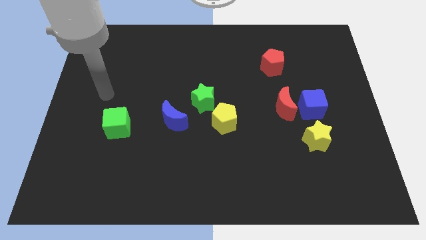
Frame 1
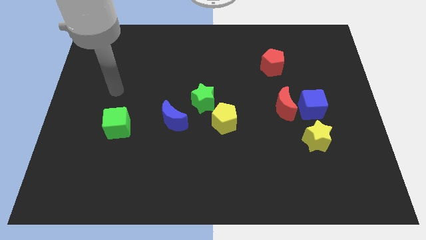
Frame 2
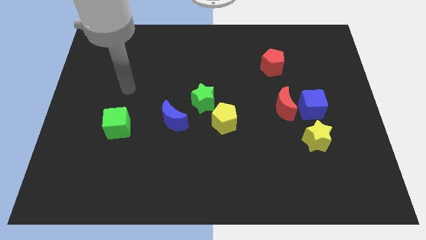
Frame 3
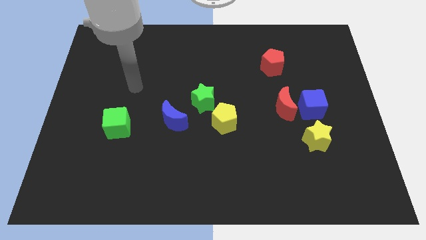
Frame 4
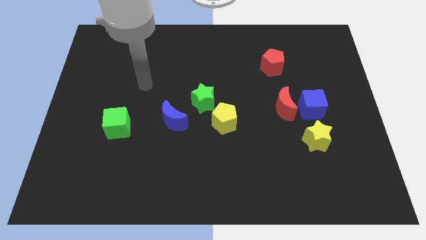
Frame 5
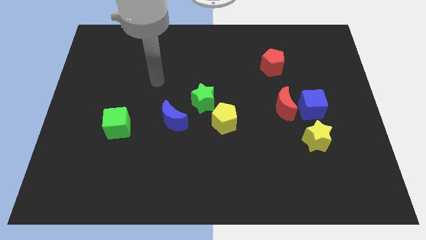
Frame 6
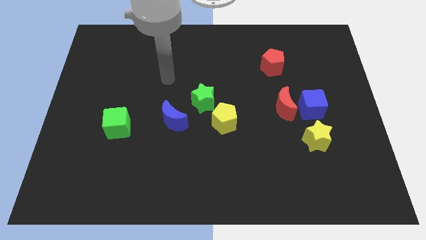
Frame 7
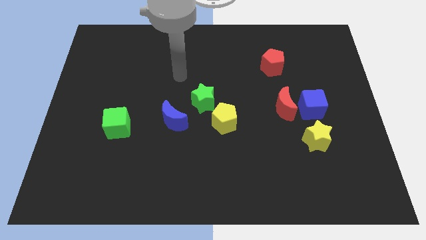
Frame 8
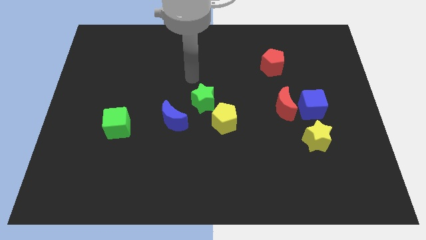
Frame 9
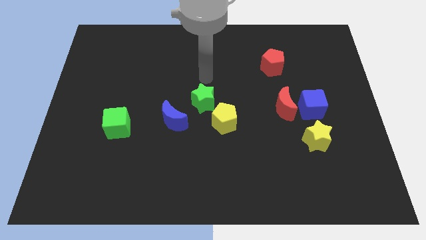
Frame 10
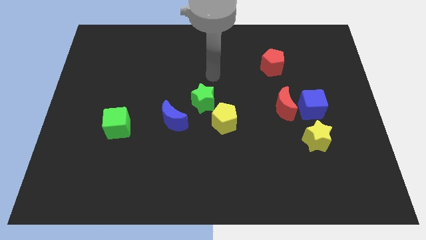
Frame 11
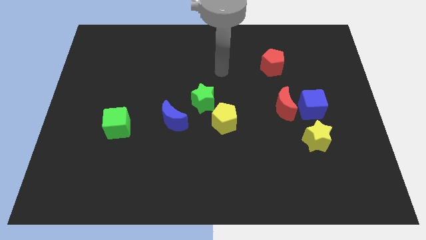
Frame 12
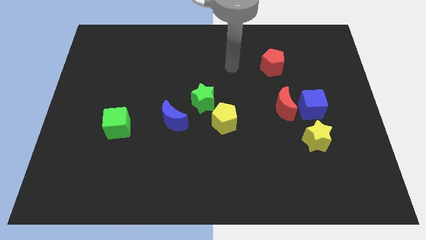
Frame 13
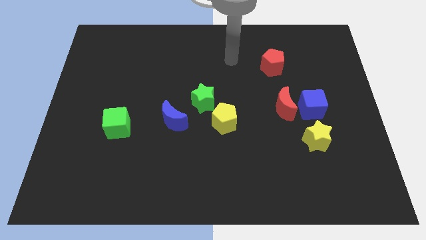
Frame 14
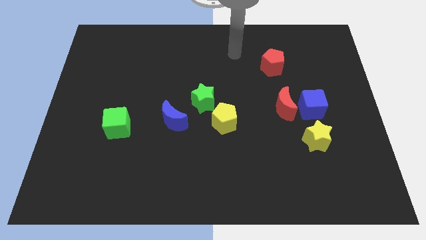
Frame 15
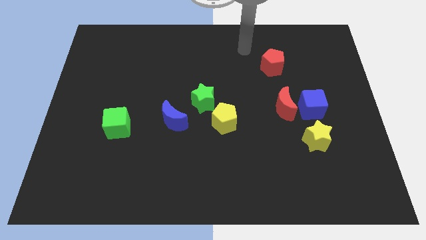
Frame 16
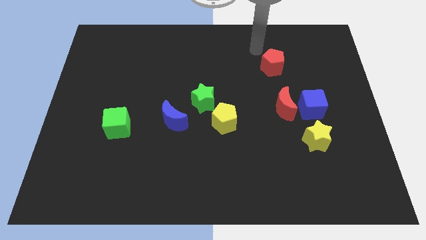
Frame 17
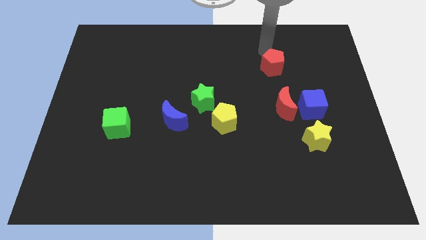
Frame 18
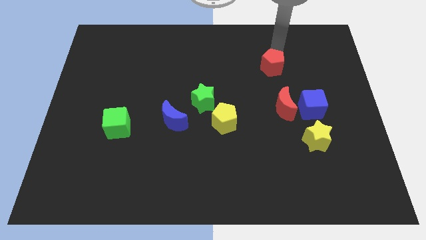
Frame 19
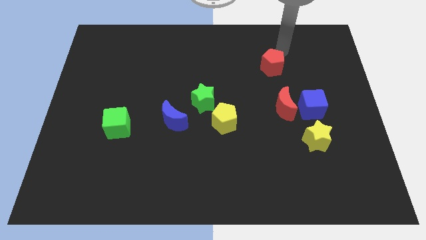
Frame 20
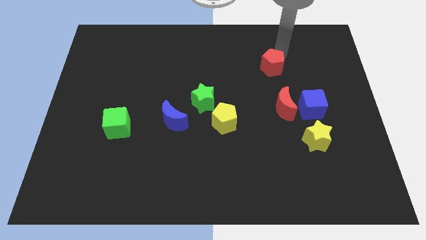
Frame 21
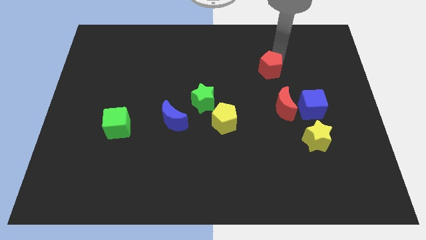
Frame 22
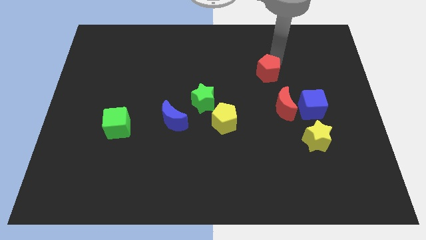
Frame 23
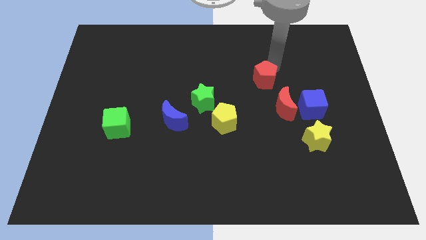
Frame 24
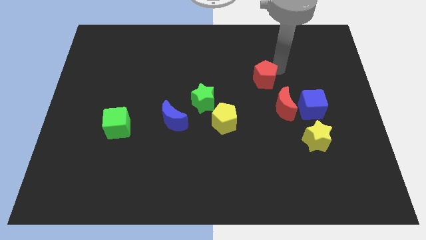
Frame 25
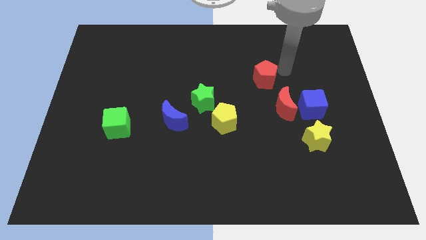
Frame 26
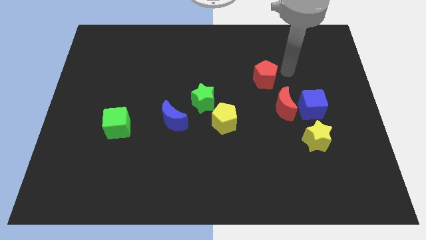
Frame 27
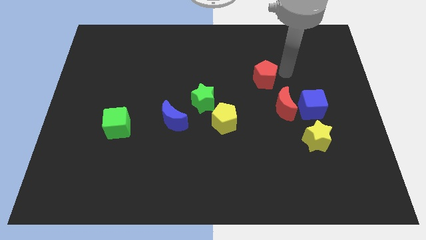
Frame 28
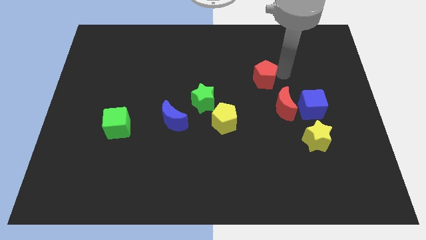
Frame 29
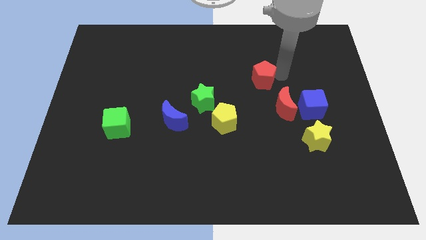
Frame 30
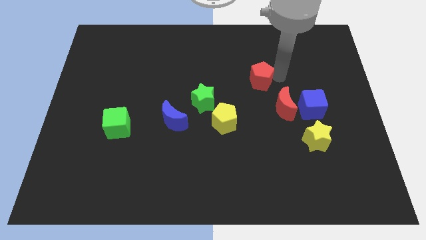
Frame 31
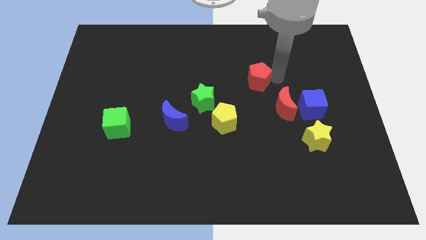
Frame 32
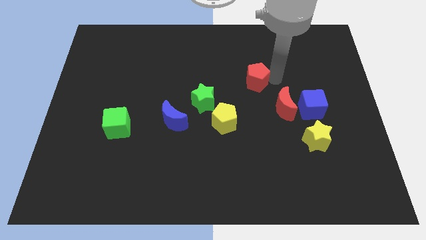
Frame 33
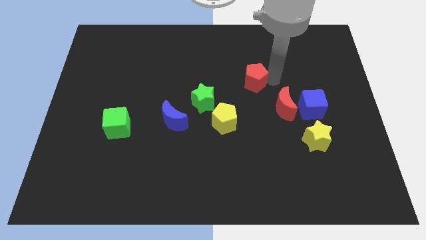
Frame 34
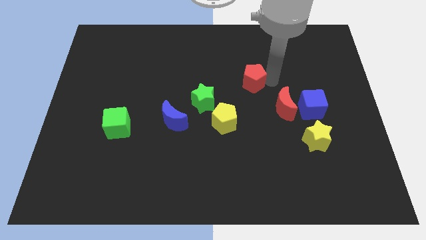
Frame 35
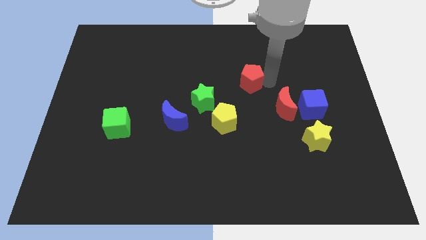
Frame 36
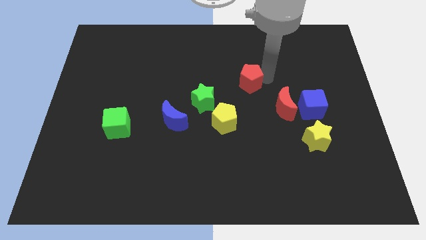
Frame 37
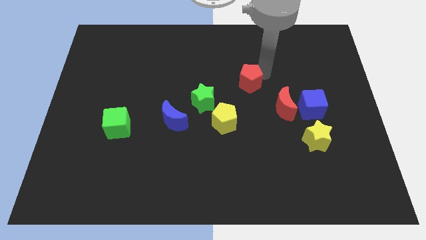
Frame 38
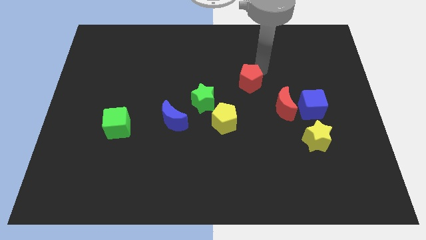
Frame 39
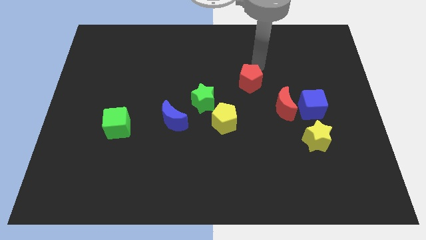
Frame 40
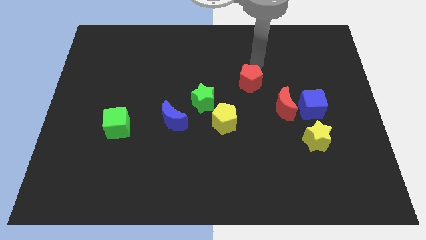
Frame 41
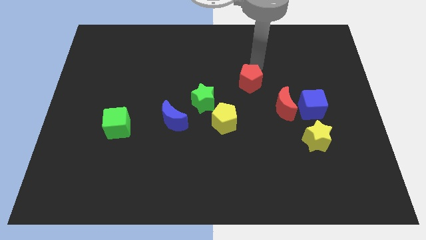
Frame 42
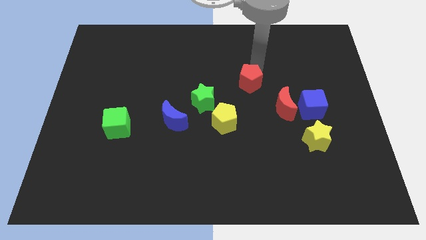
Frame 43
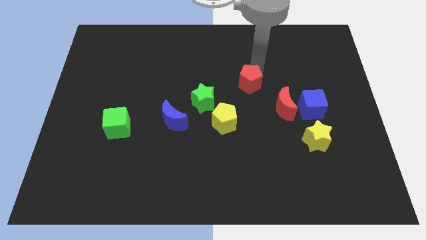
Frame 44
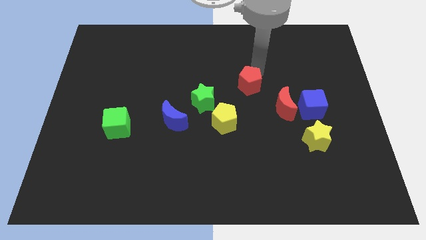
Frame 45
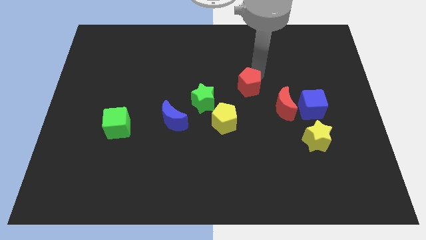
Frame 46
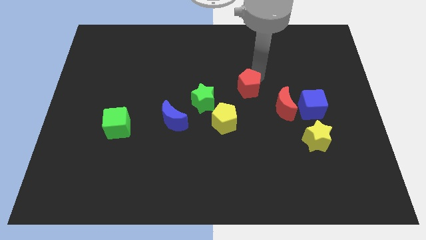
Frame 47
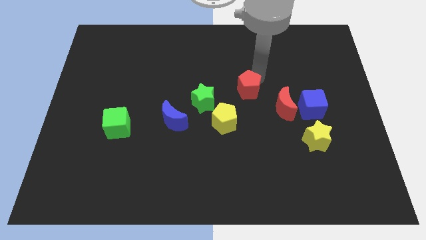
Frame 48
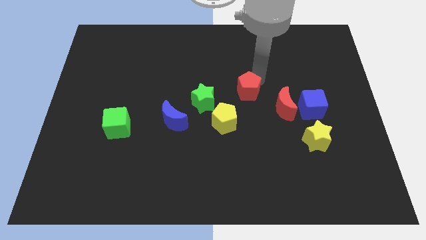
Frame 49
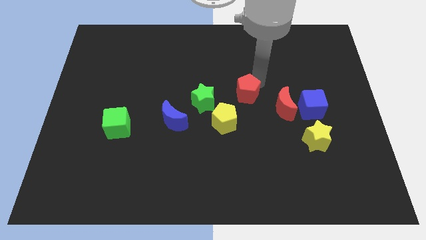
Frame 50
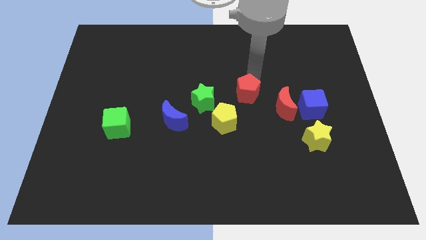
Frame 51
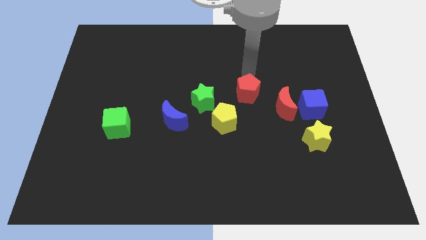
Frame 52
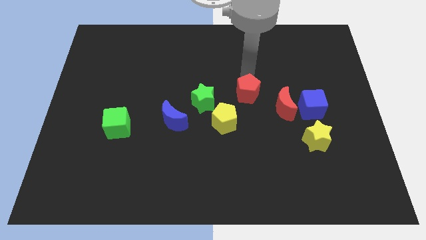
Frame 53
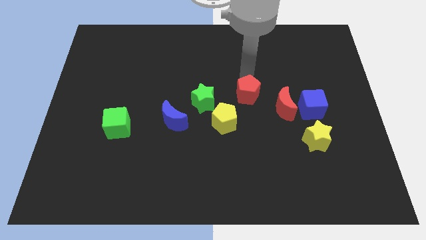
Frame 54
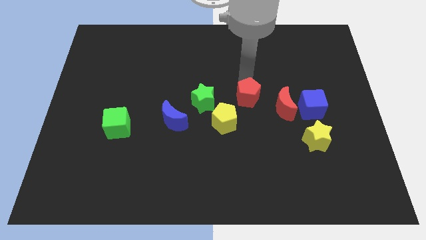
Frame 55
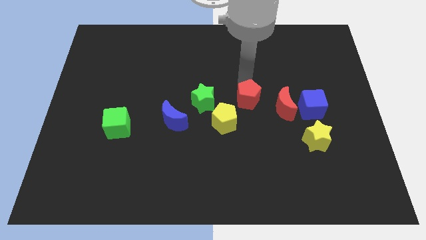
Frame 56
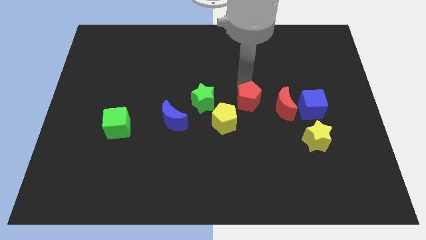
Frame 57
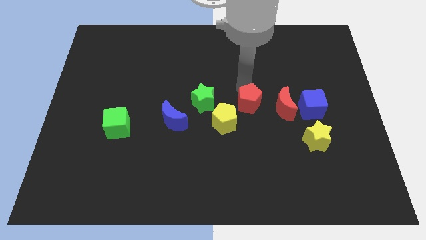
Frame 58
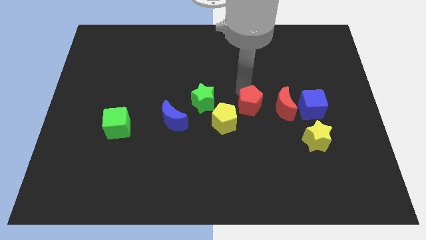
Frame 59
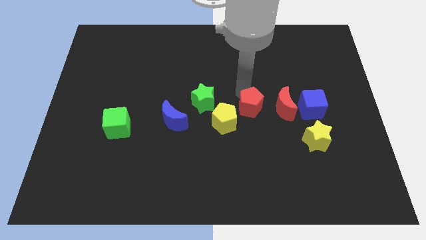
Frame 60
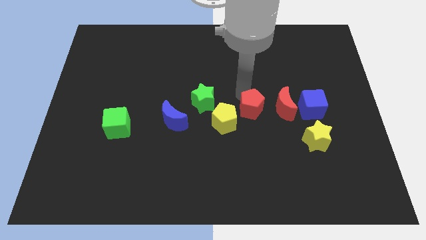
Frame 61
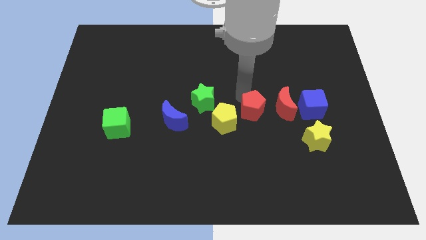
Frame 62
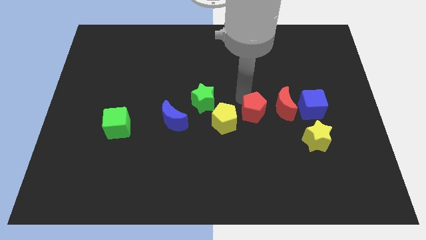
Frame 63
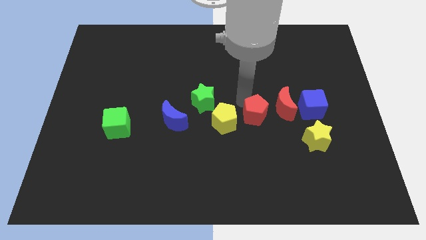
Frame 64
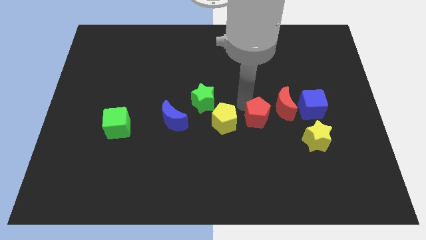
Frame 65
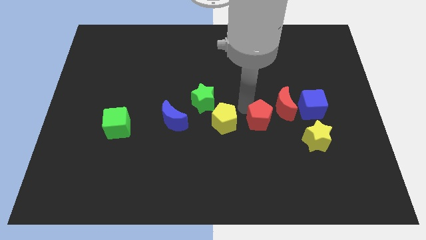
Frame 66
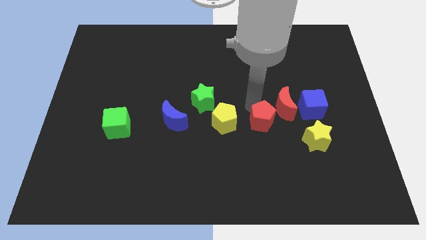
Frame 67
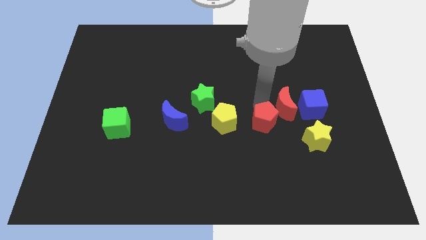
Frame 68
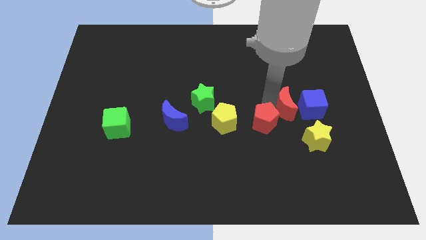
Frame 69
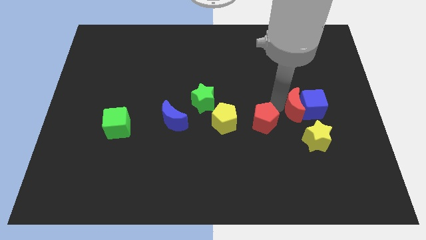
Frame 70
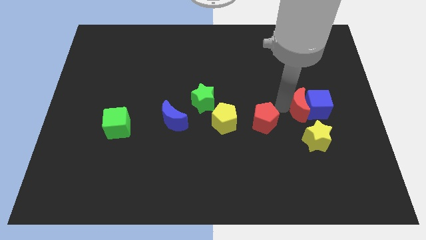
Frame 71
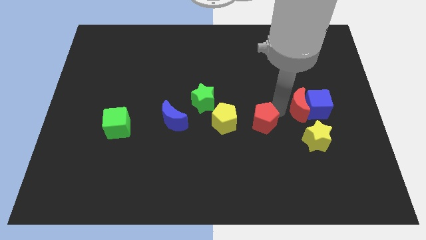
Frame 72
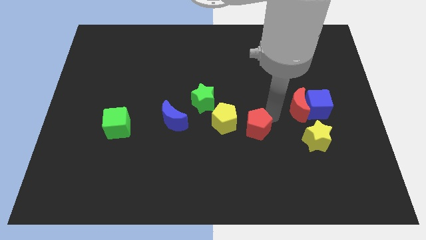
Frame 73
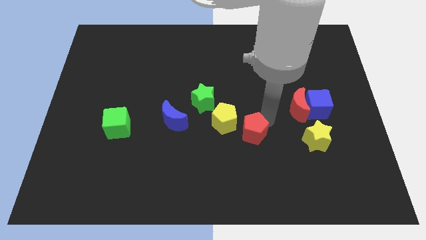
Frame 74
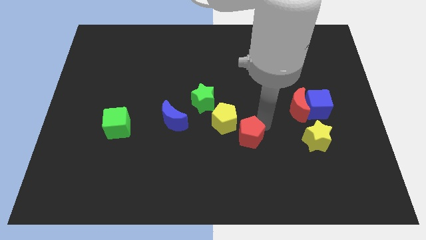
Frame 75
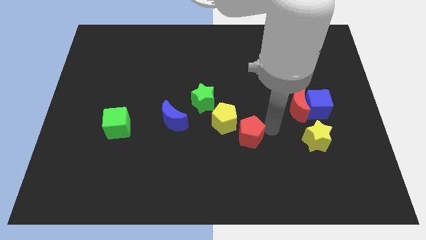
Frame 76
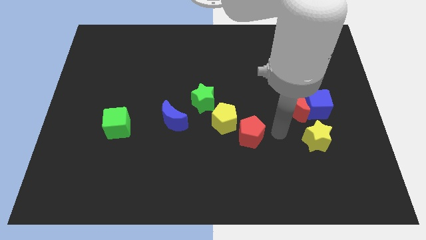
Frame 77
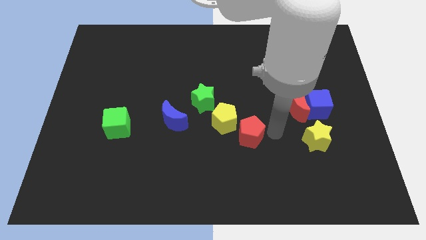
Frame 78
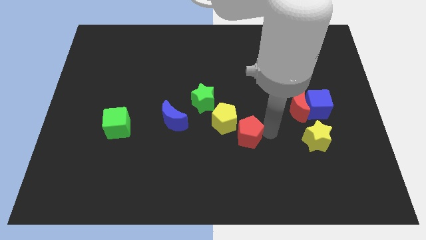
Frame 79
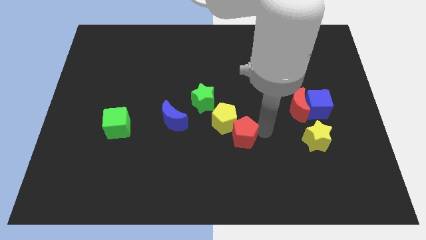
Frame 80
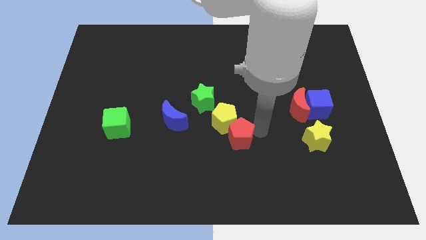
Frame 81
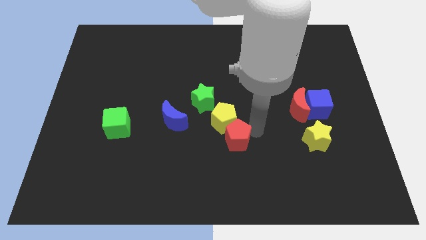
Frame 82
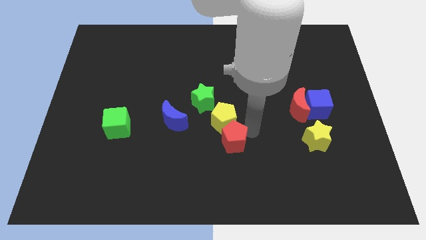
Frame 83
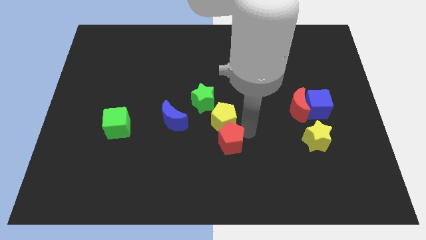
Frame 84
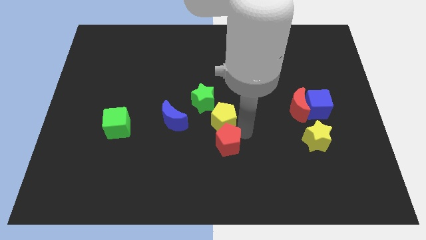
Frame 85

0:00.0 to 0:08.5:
push the red pentagon to the bottom left side of the yellow pentagon
